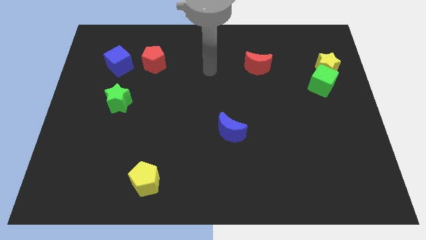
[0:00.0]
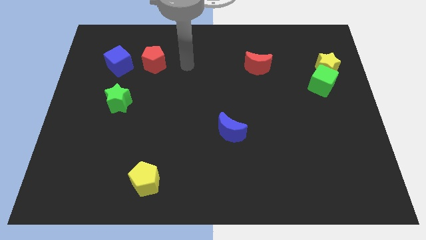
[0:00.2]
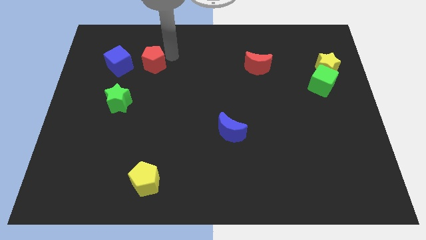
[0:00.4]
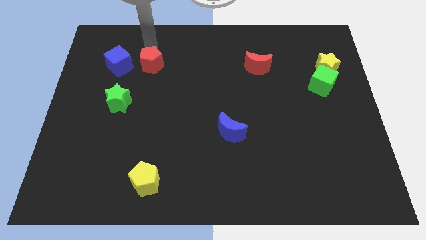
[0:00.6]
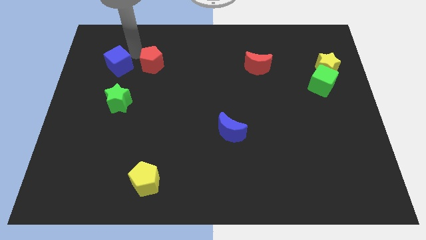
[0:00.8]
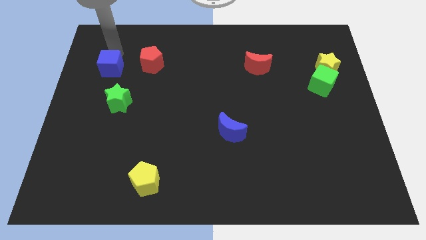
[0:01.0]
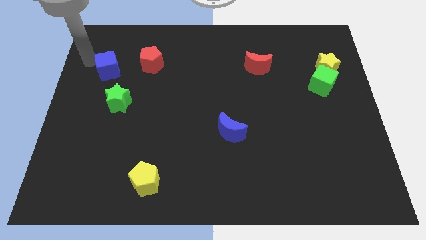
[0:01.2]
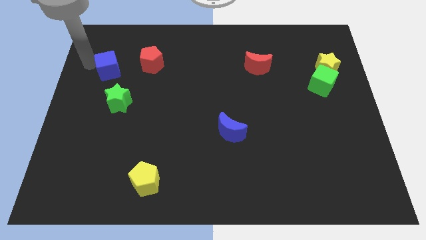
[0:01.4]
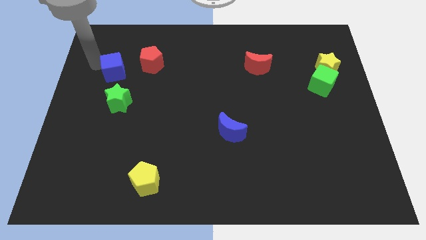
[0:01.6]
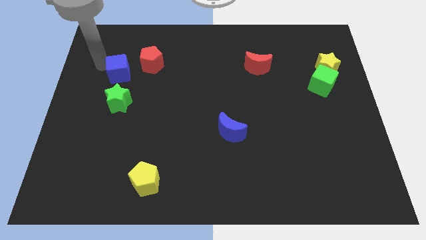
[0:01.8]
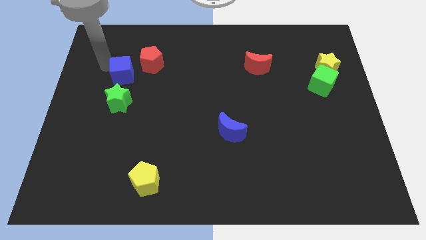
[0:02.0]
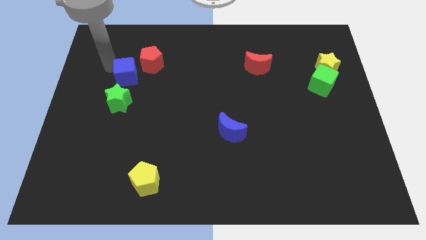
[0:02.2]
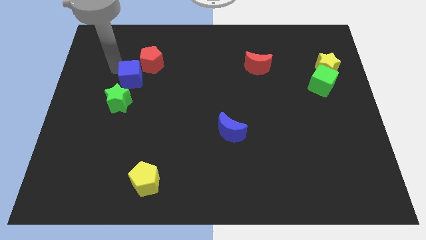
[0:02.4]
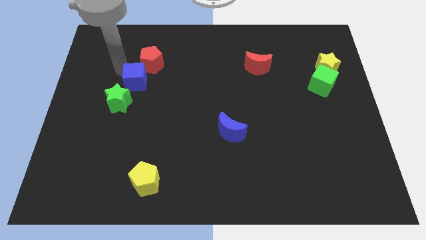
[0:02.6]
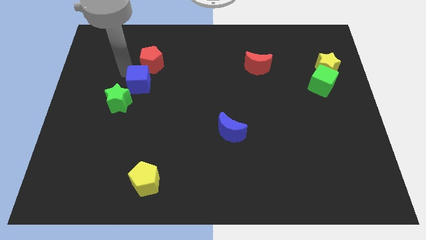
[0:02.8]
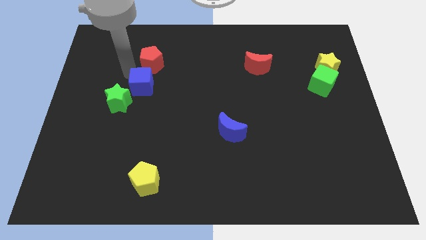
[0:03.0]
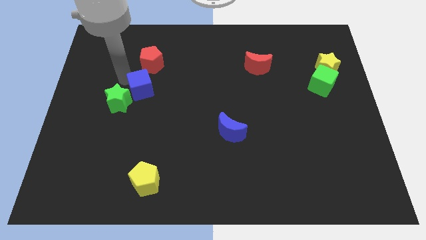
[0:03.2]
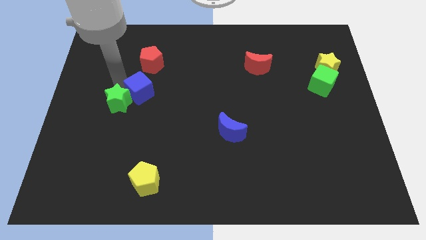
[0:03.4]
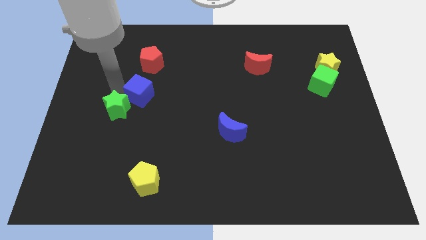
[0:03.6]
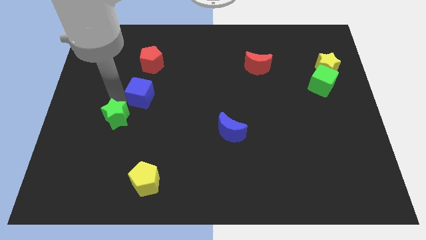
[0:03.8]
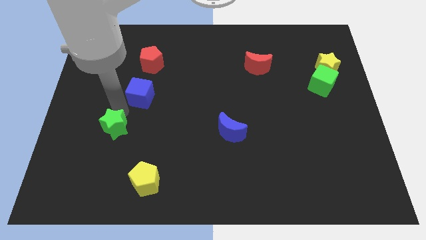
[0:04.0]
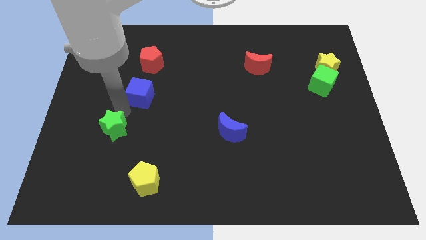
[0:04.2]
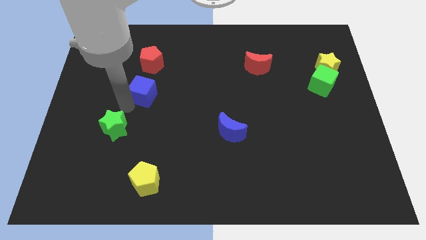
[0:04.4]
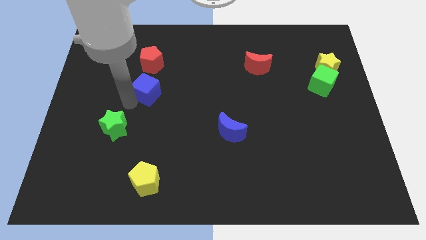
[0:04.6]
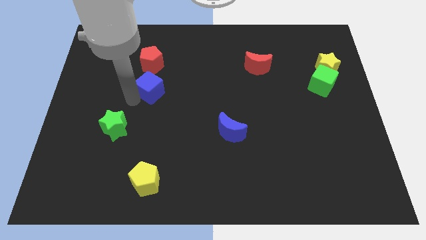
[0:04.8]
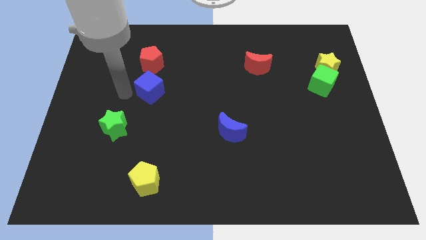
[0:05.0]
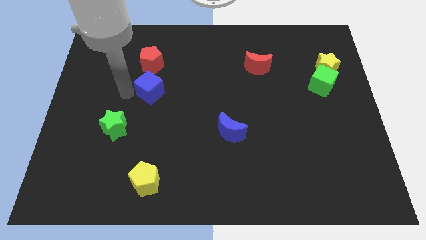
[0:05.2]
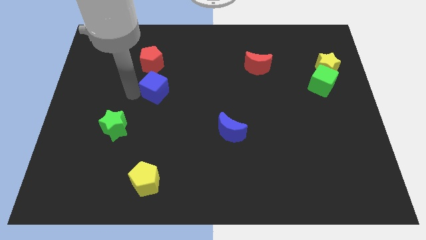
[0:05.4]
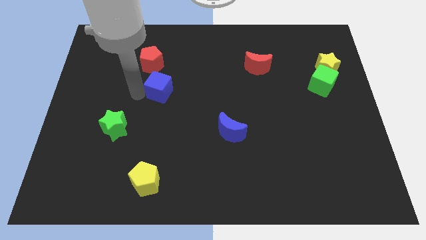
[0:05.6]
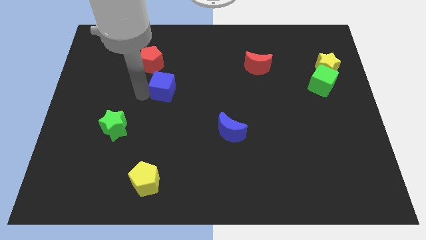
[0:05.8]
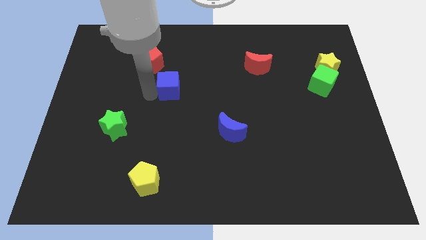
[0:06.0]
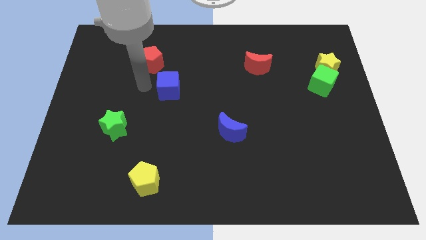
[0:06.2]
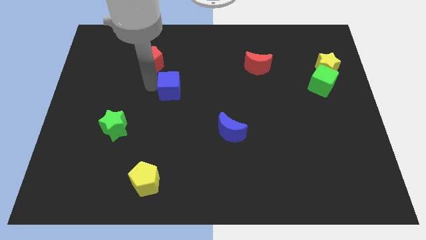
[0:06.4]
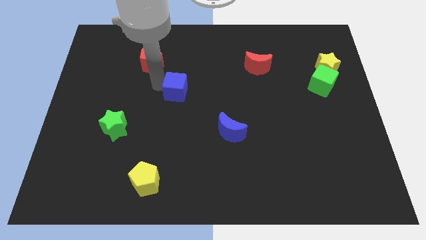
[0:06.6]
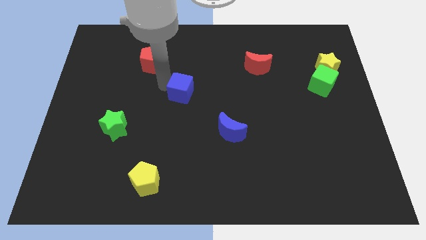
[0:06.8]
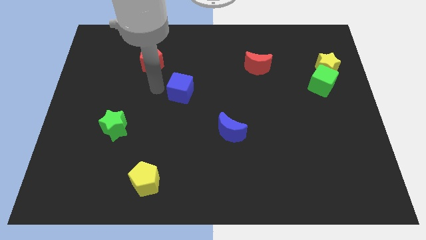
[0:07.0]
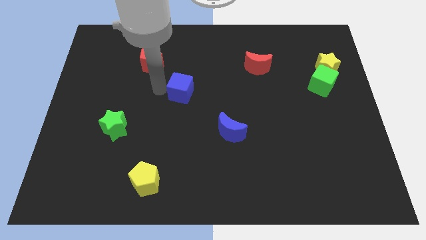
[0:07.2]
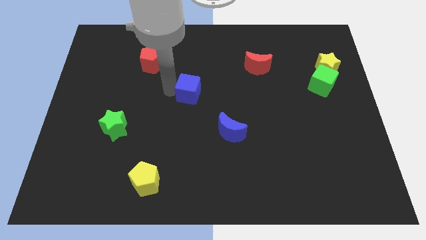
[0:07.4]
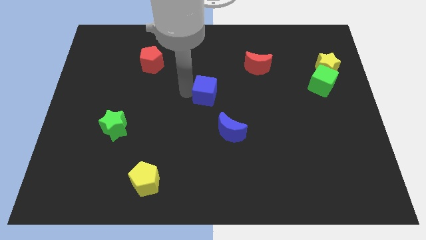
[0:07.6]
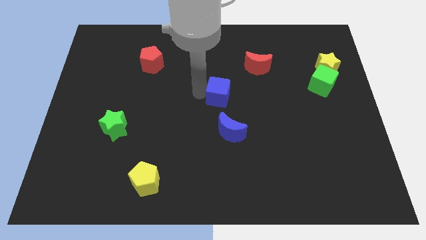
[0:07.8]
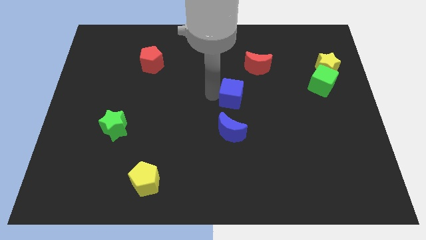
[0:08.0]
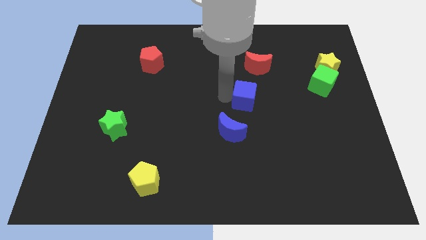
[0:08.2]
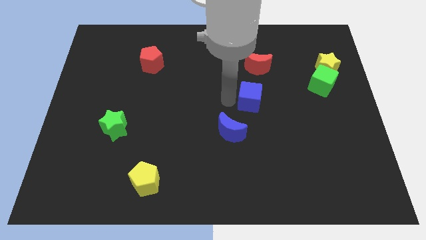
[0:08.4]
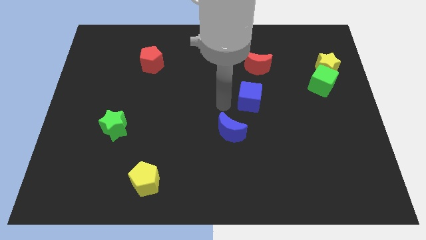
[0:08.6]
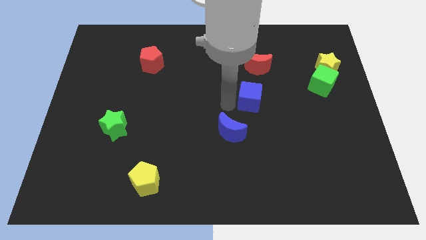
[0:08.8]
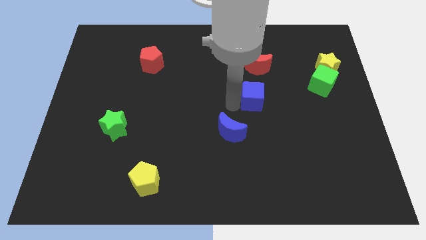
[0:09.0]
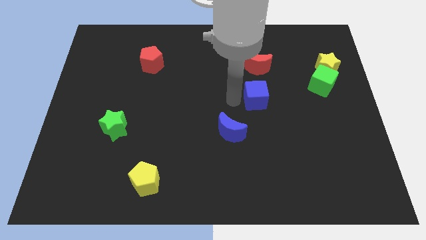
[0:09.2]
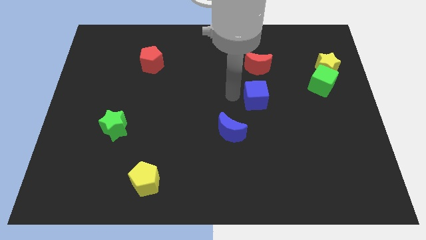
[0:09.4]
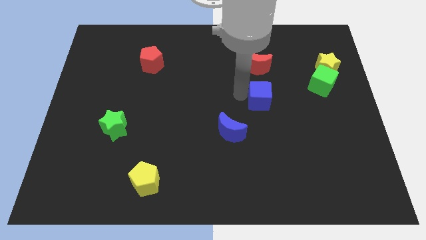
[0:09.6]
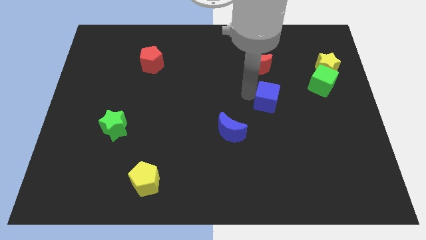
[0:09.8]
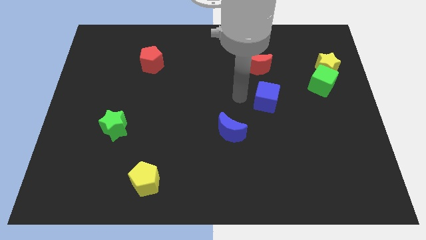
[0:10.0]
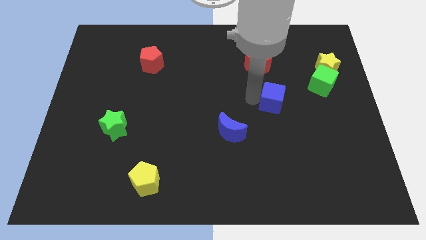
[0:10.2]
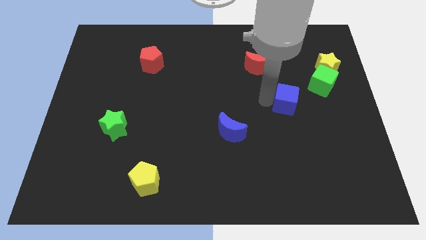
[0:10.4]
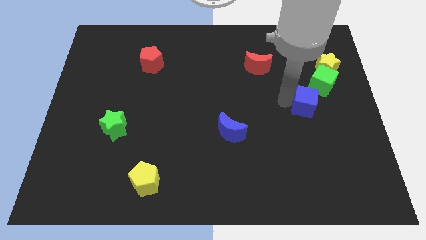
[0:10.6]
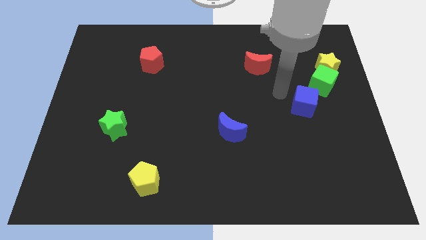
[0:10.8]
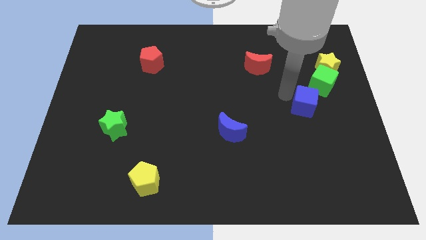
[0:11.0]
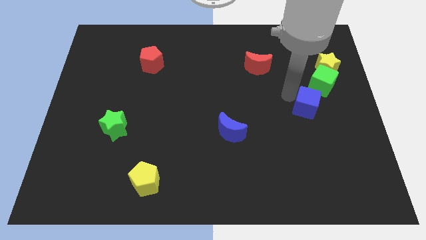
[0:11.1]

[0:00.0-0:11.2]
push the blue cube below the green cube

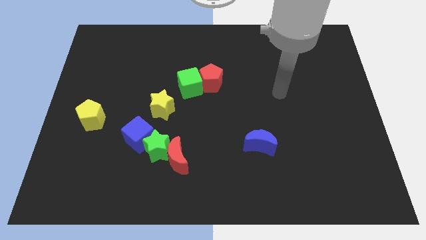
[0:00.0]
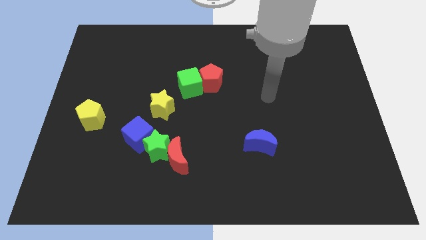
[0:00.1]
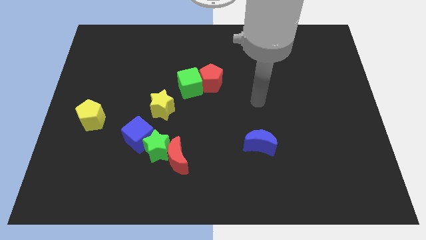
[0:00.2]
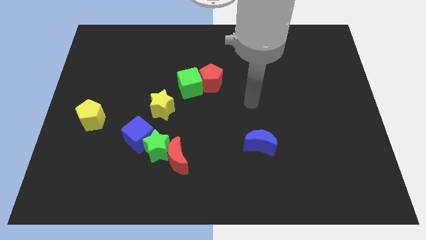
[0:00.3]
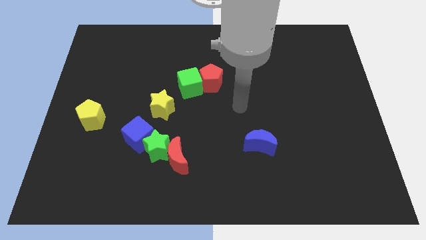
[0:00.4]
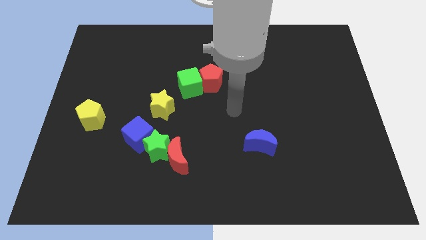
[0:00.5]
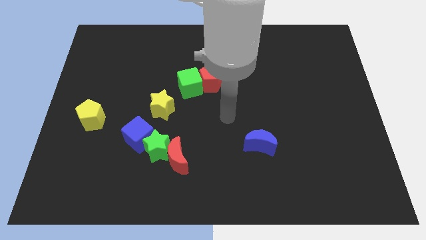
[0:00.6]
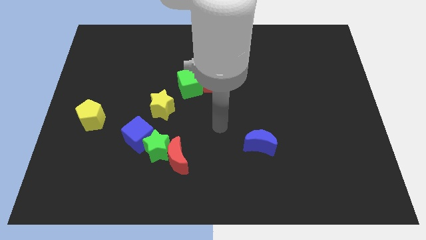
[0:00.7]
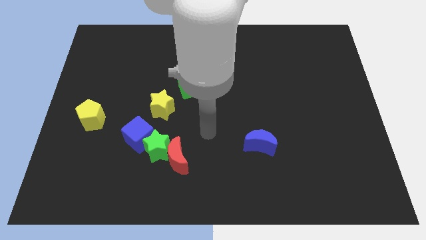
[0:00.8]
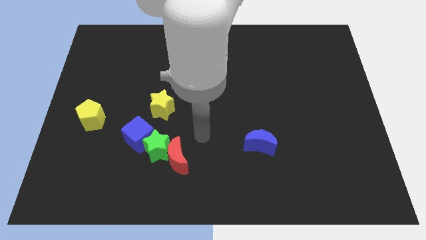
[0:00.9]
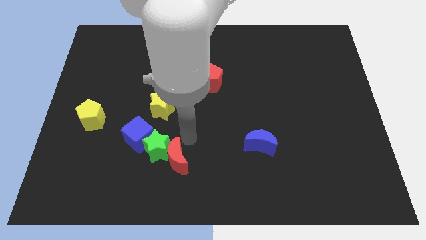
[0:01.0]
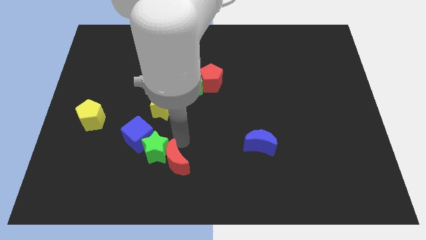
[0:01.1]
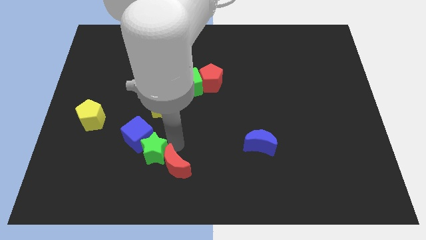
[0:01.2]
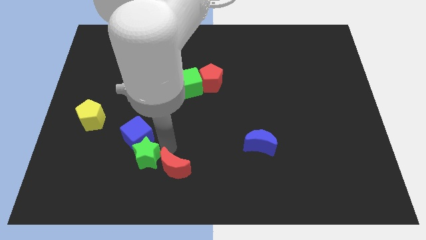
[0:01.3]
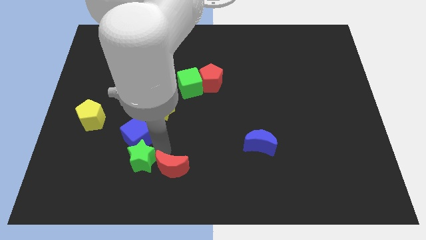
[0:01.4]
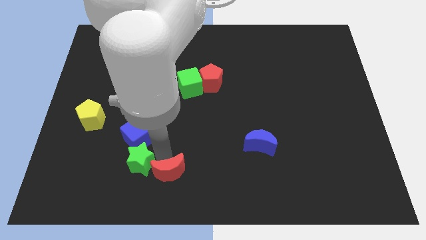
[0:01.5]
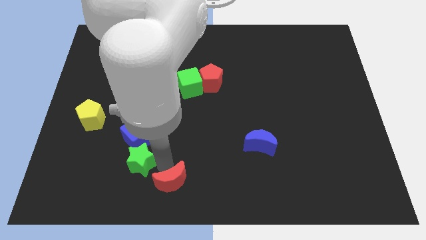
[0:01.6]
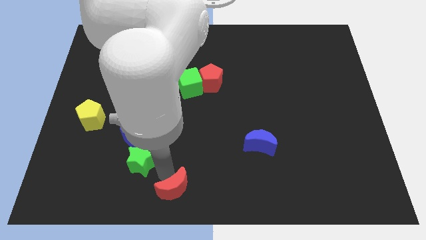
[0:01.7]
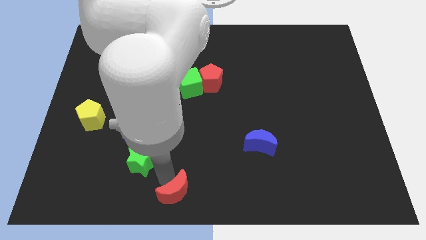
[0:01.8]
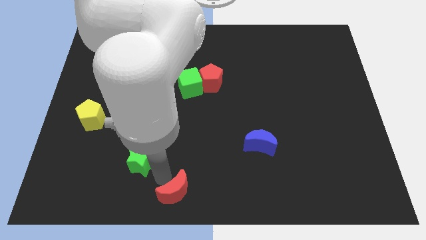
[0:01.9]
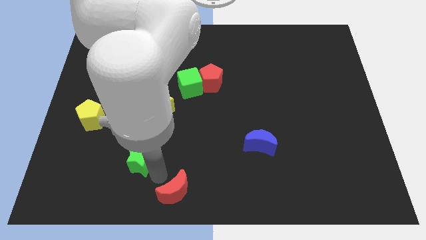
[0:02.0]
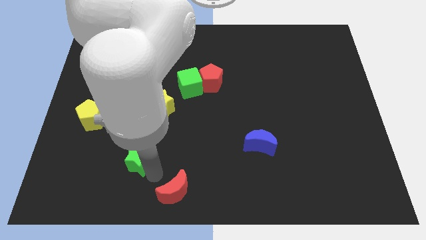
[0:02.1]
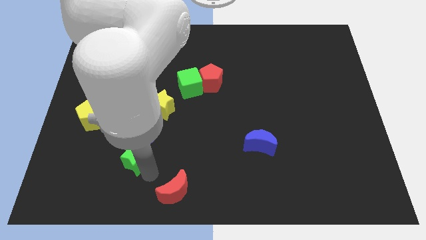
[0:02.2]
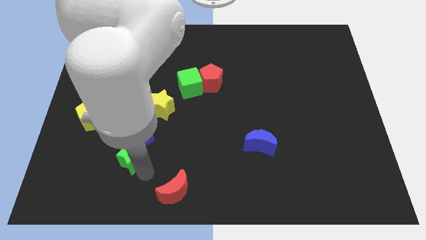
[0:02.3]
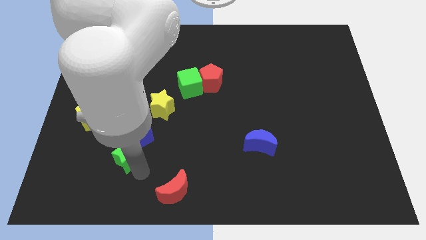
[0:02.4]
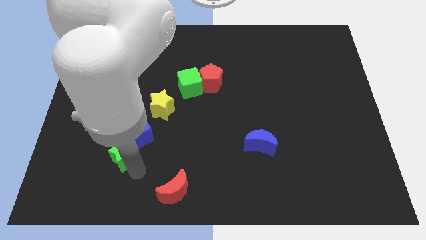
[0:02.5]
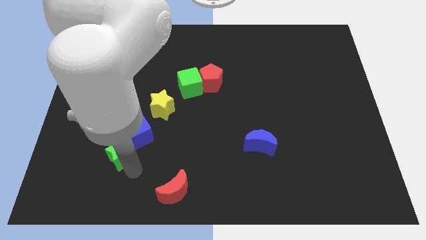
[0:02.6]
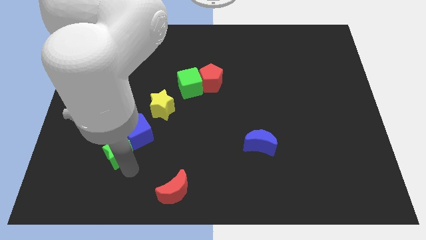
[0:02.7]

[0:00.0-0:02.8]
push the green star to the bottom right side of the yellow pentagon
